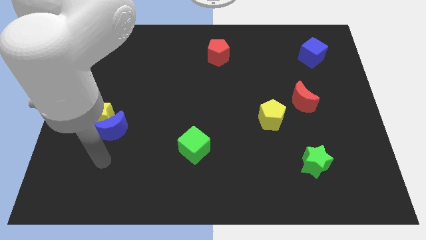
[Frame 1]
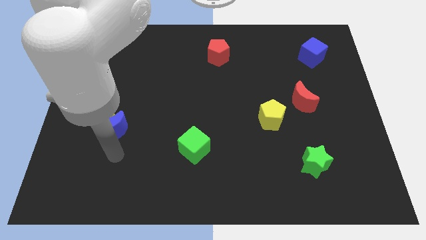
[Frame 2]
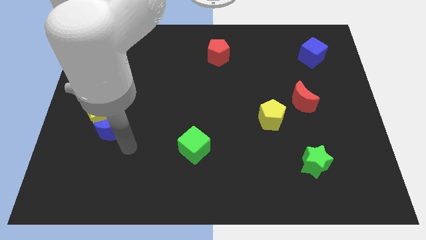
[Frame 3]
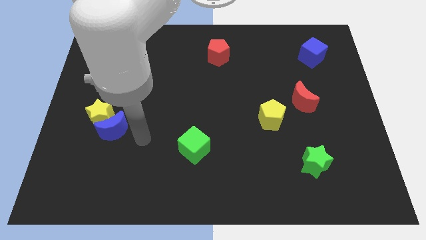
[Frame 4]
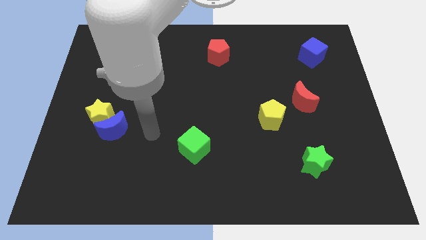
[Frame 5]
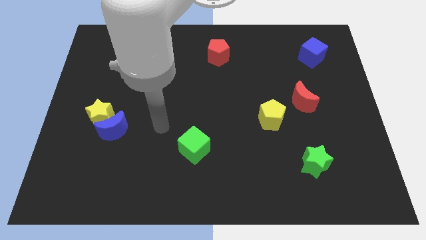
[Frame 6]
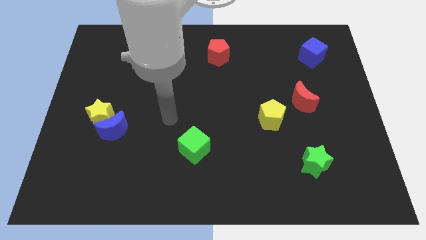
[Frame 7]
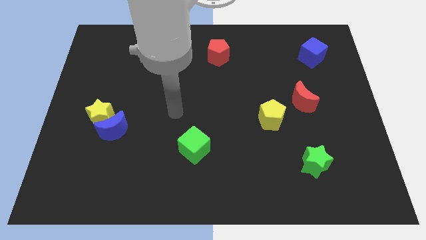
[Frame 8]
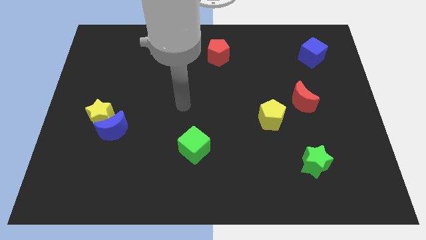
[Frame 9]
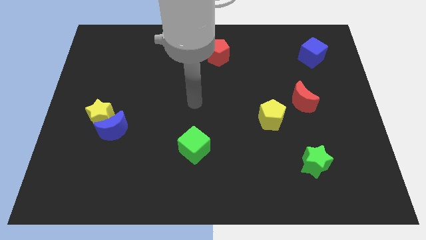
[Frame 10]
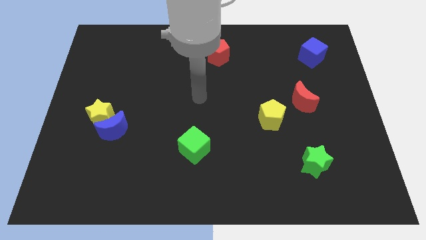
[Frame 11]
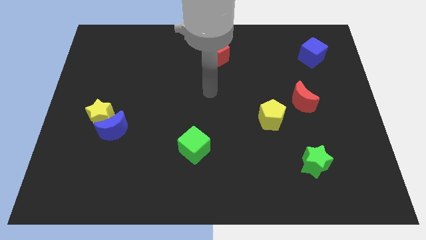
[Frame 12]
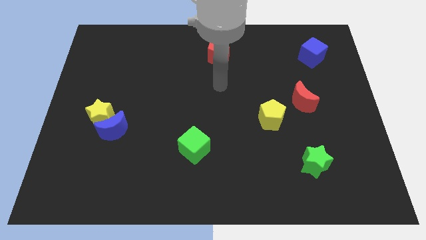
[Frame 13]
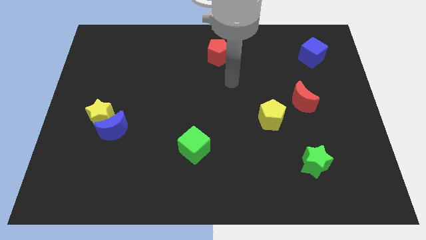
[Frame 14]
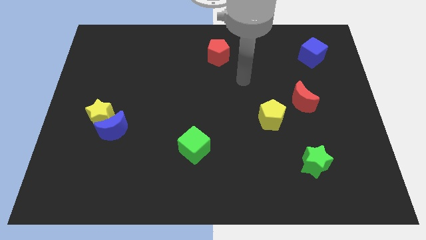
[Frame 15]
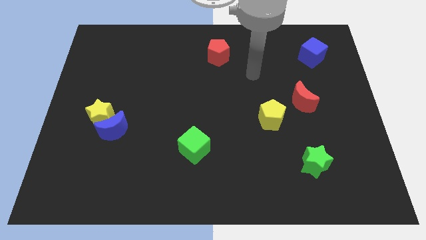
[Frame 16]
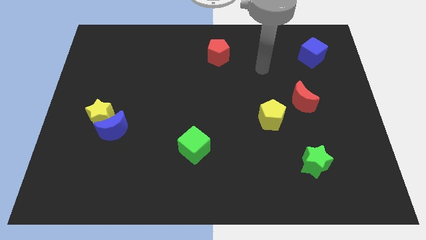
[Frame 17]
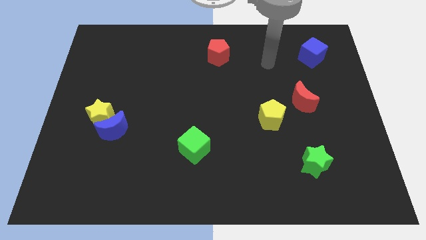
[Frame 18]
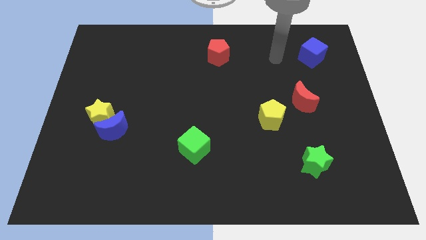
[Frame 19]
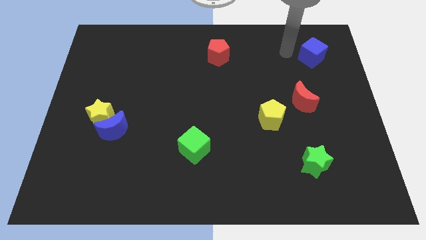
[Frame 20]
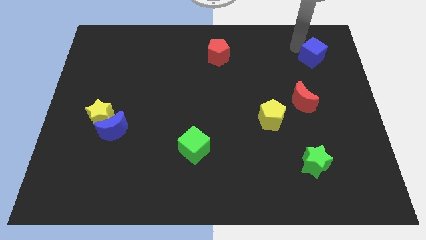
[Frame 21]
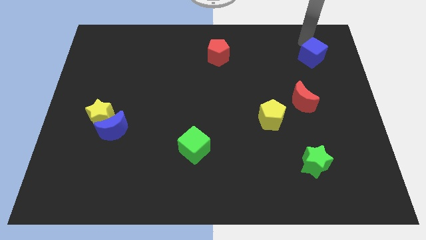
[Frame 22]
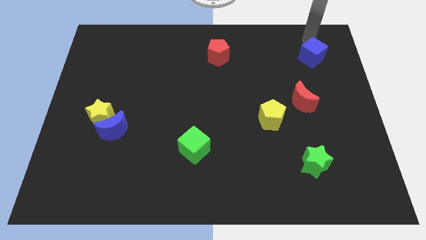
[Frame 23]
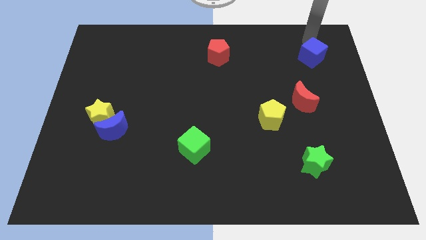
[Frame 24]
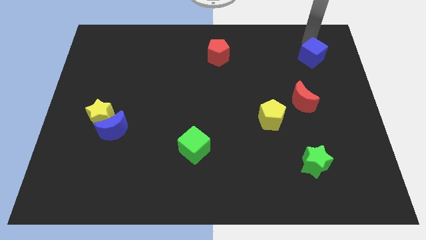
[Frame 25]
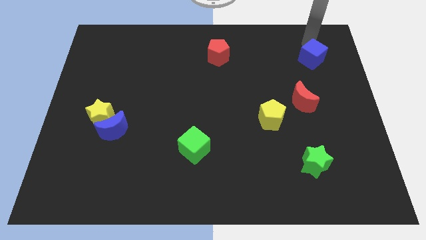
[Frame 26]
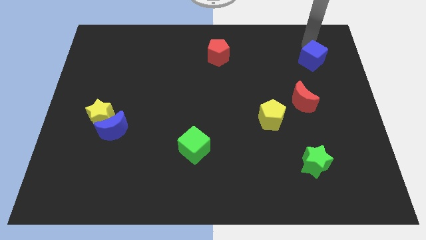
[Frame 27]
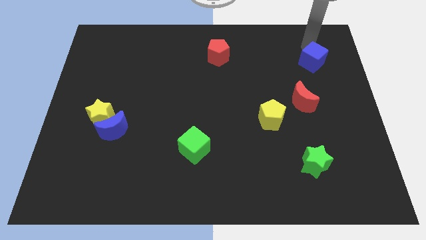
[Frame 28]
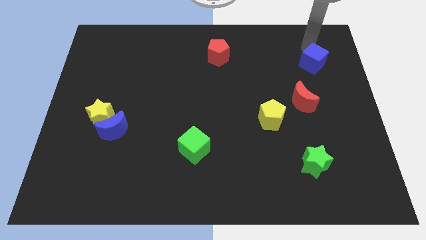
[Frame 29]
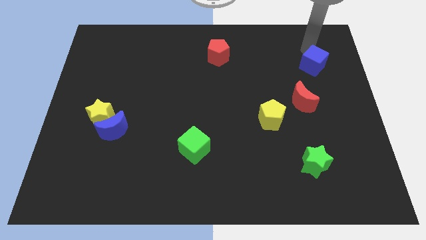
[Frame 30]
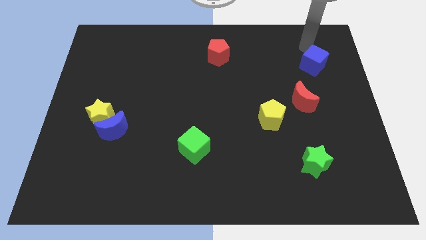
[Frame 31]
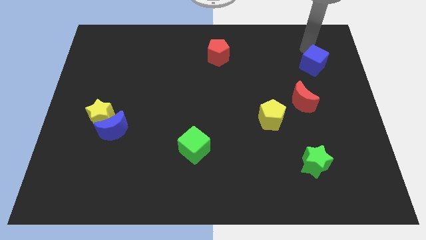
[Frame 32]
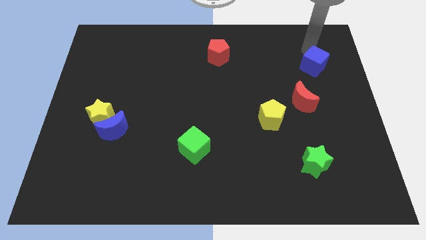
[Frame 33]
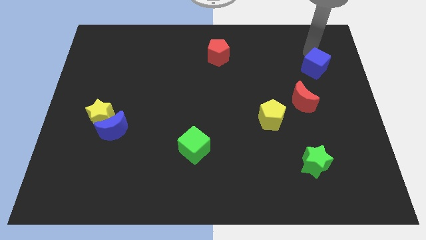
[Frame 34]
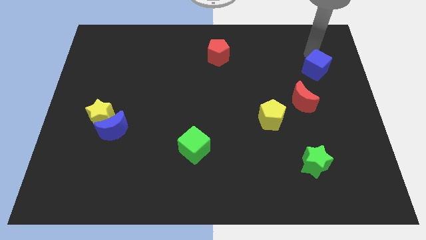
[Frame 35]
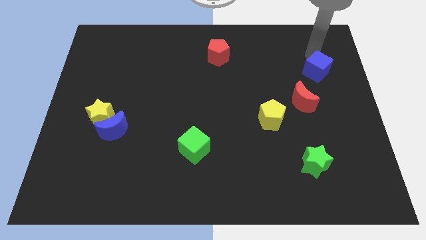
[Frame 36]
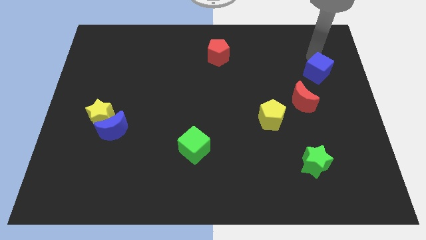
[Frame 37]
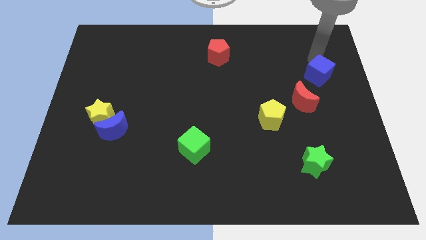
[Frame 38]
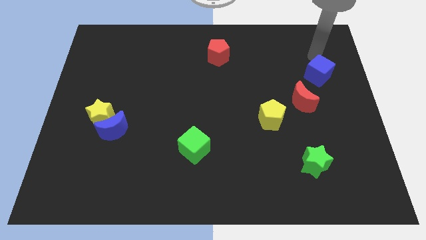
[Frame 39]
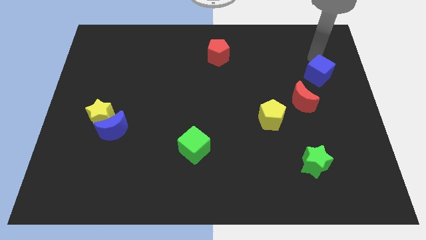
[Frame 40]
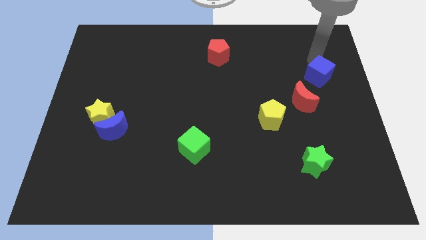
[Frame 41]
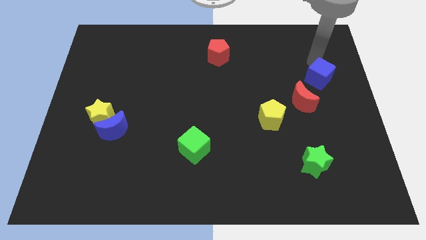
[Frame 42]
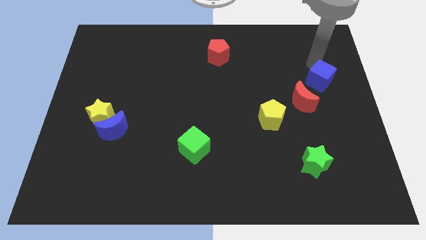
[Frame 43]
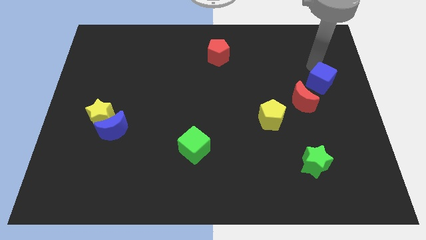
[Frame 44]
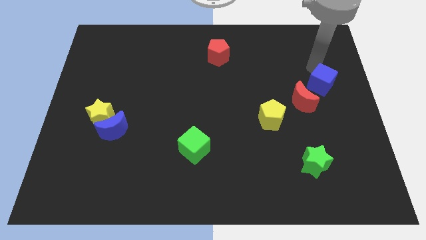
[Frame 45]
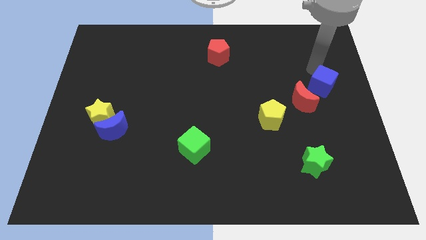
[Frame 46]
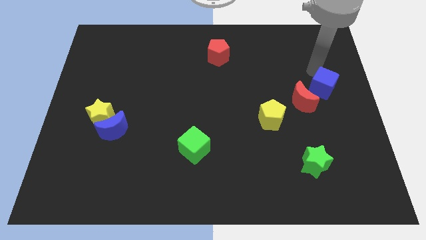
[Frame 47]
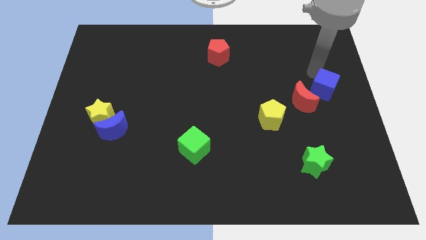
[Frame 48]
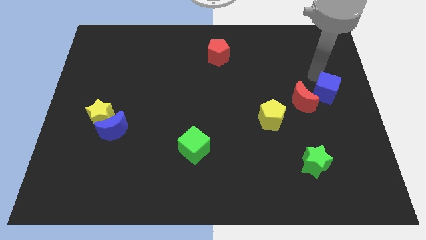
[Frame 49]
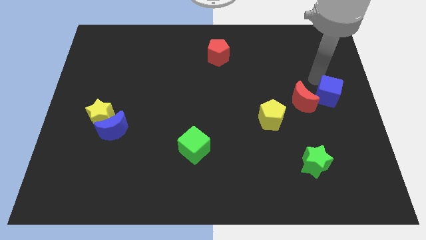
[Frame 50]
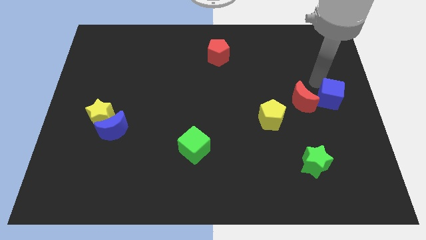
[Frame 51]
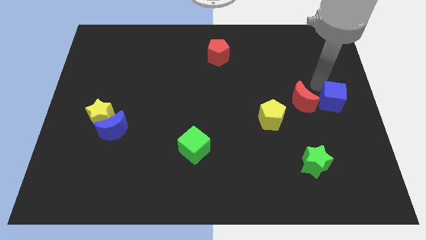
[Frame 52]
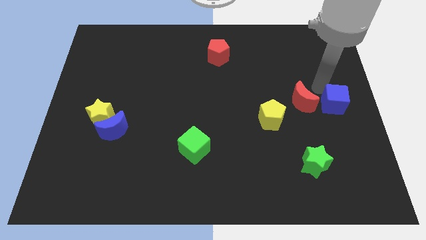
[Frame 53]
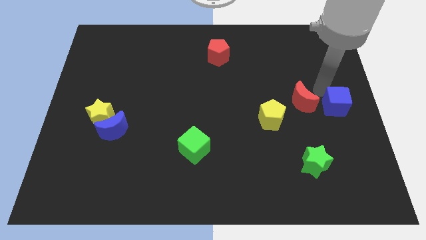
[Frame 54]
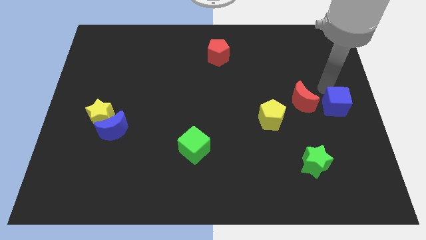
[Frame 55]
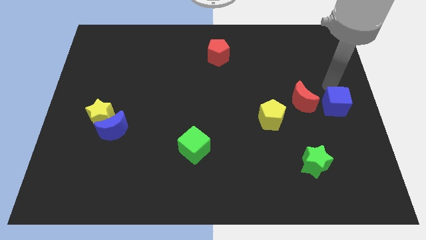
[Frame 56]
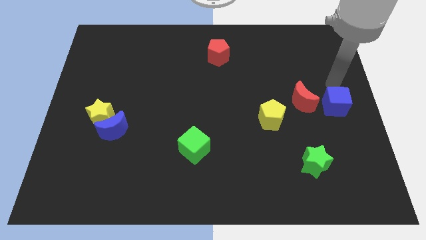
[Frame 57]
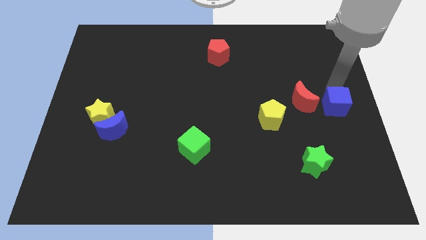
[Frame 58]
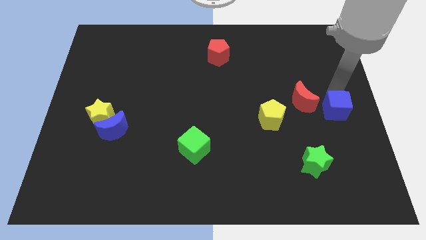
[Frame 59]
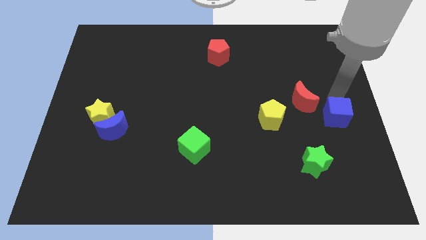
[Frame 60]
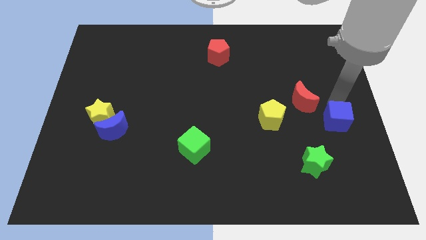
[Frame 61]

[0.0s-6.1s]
slide the blue cube downwards

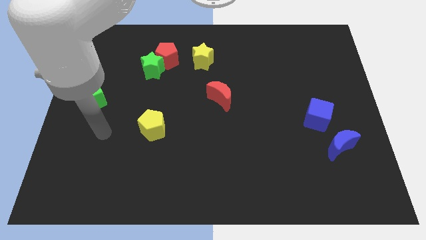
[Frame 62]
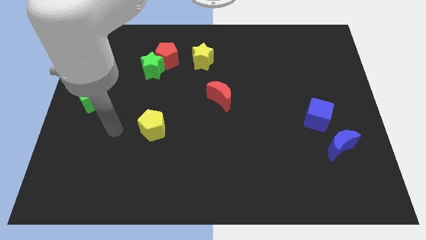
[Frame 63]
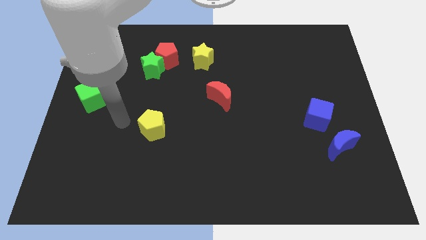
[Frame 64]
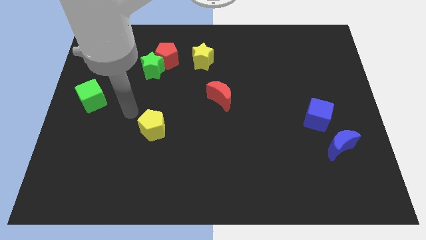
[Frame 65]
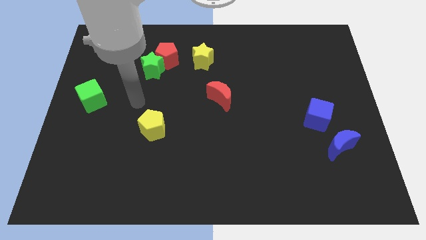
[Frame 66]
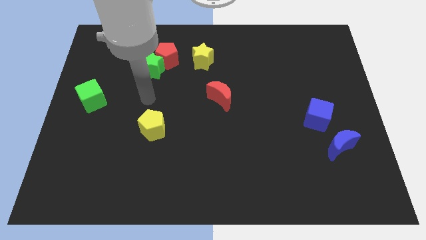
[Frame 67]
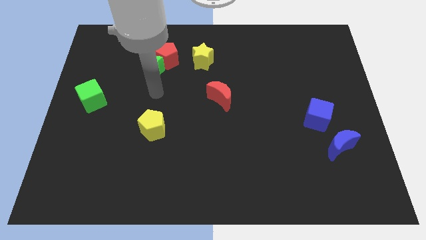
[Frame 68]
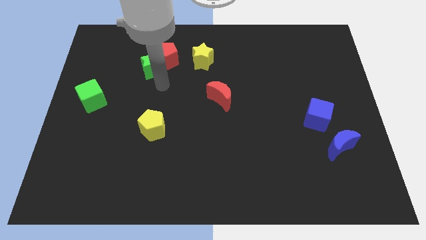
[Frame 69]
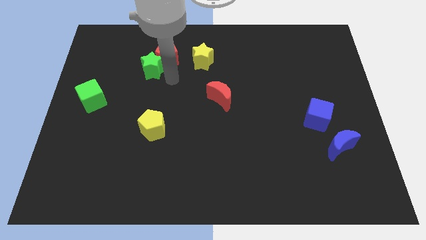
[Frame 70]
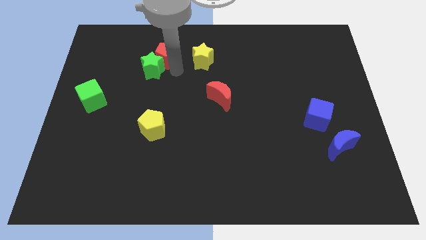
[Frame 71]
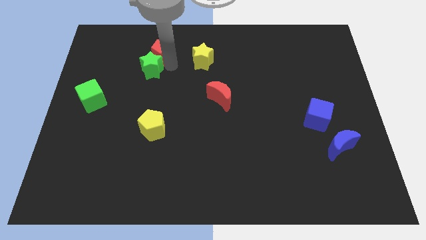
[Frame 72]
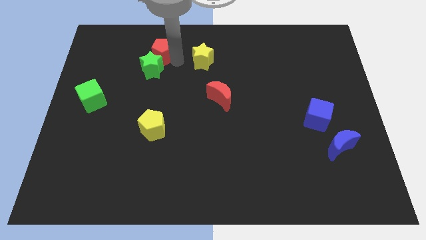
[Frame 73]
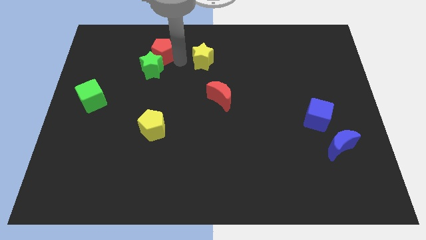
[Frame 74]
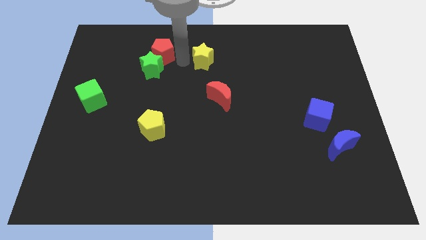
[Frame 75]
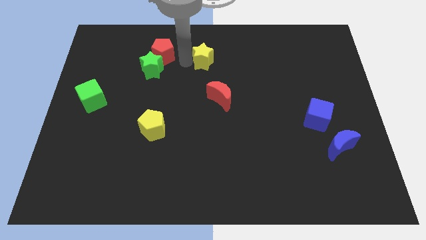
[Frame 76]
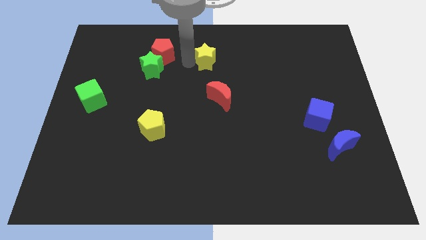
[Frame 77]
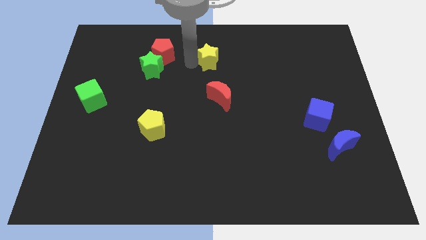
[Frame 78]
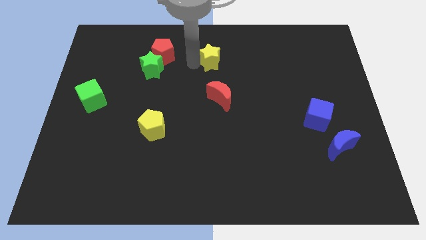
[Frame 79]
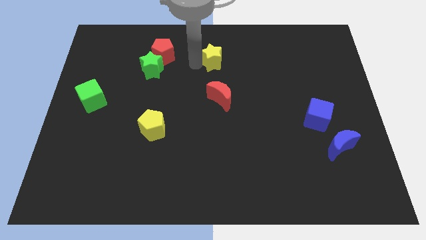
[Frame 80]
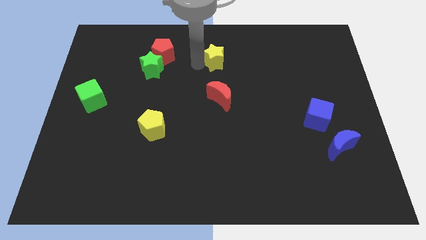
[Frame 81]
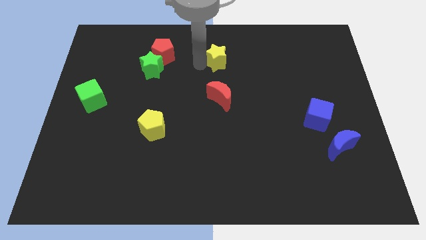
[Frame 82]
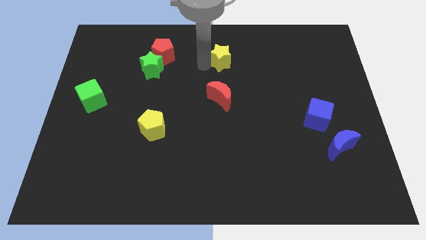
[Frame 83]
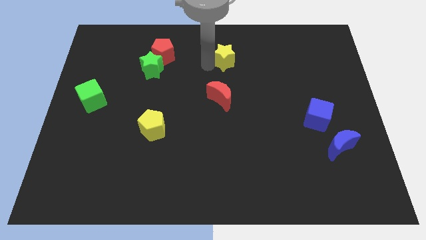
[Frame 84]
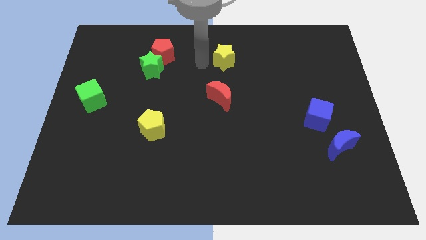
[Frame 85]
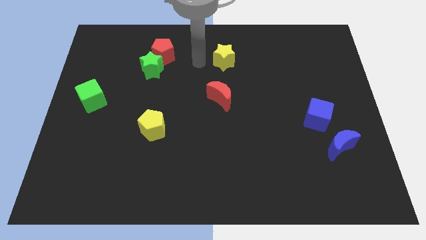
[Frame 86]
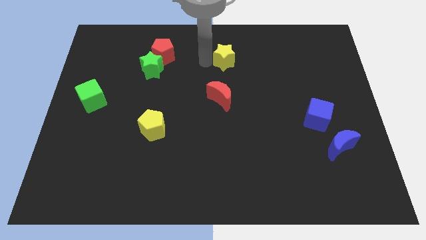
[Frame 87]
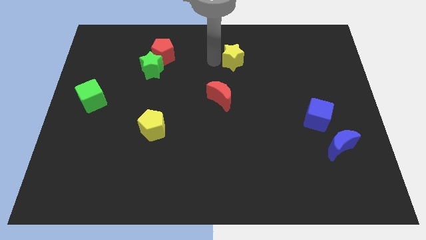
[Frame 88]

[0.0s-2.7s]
push the yellow star somewhat right
